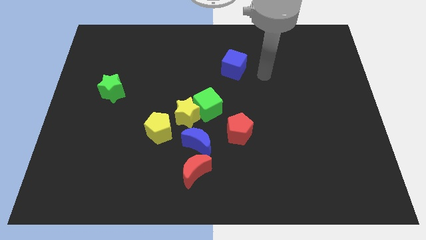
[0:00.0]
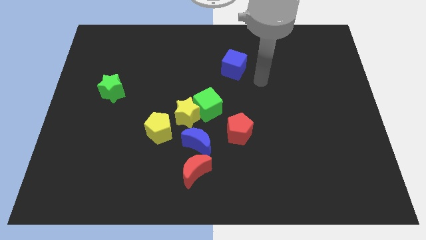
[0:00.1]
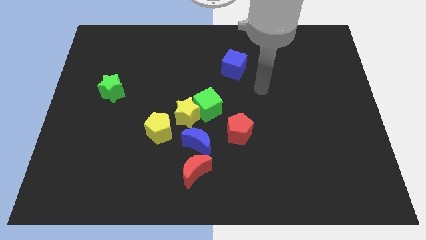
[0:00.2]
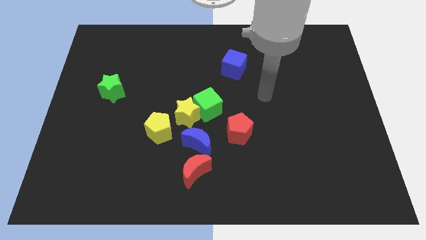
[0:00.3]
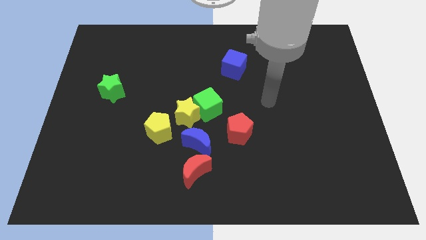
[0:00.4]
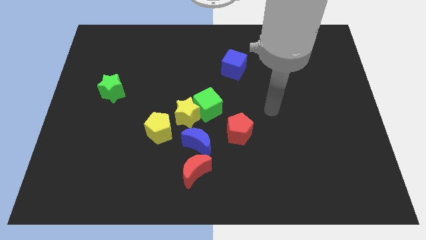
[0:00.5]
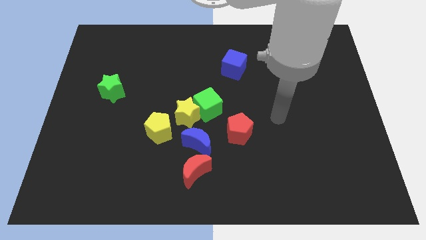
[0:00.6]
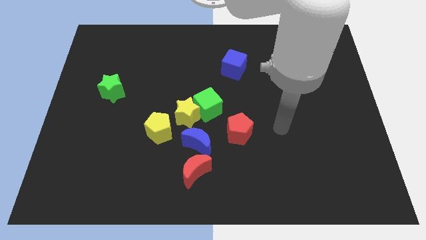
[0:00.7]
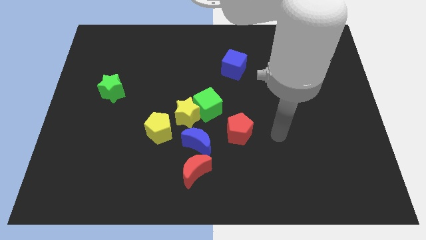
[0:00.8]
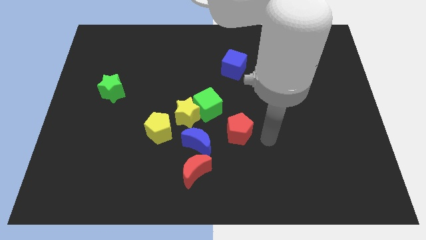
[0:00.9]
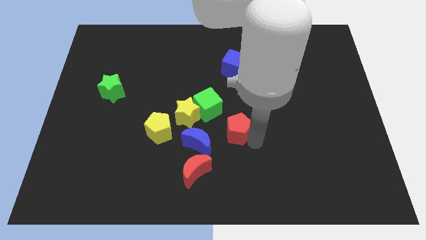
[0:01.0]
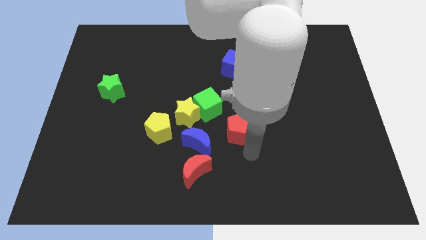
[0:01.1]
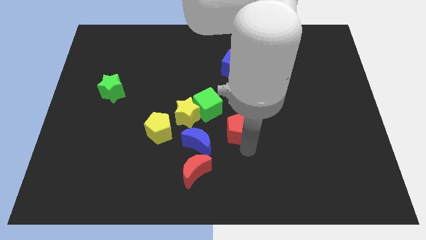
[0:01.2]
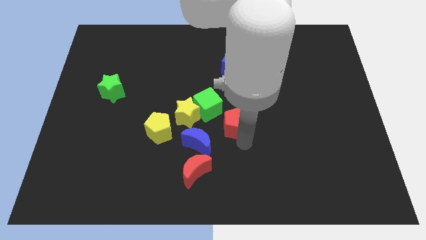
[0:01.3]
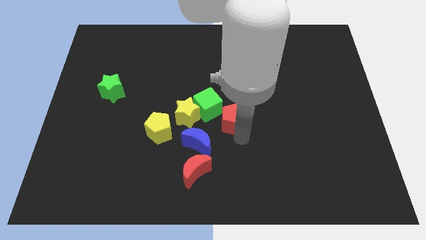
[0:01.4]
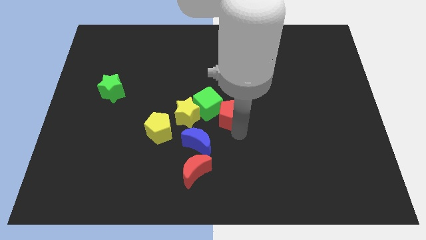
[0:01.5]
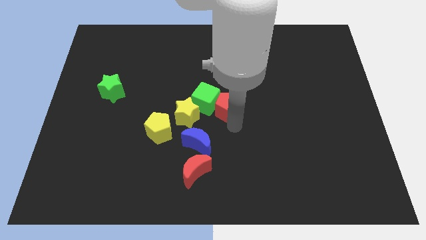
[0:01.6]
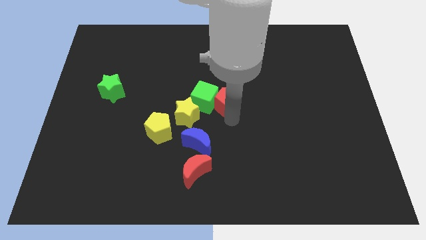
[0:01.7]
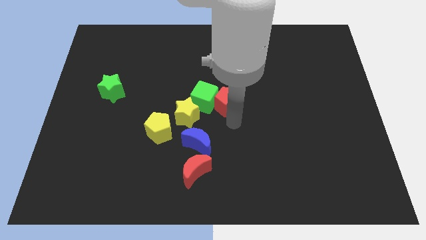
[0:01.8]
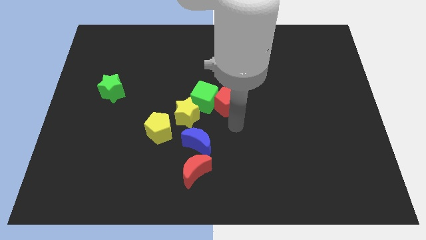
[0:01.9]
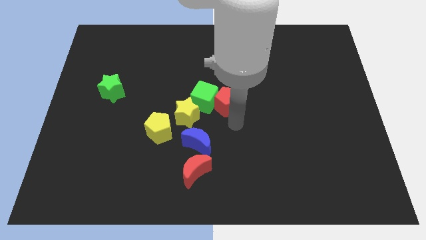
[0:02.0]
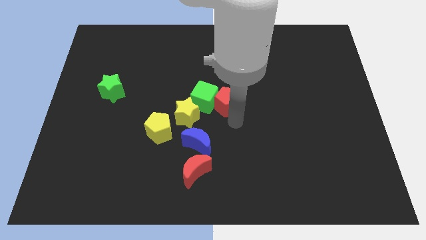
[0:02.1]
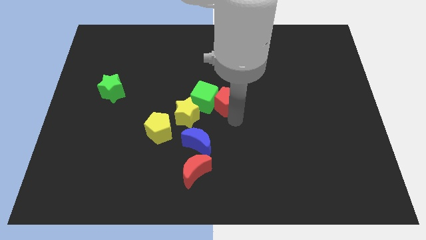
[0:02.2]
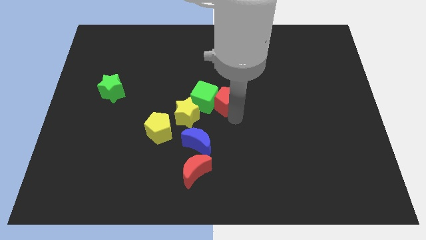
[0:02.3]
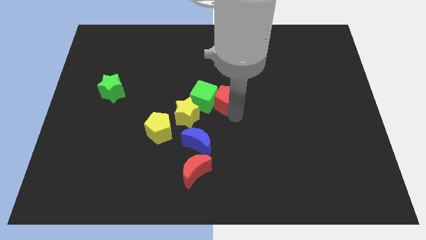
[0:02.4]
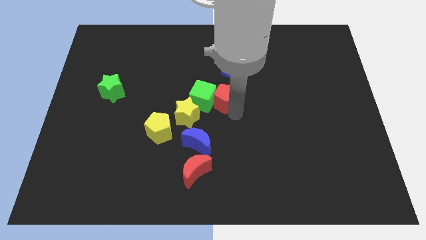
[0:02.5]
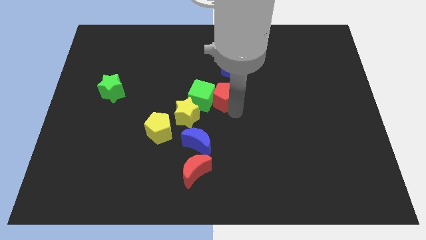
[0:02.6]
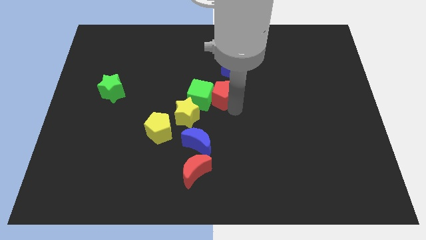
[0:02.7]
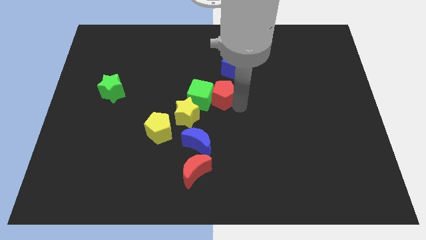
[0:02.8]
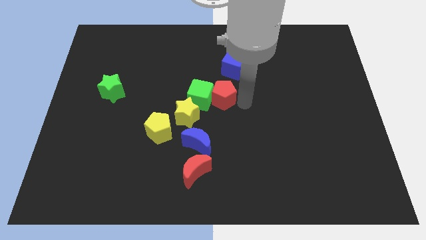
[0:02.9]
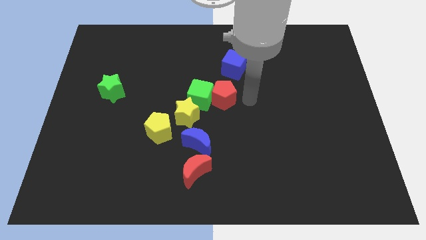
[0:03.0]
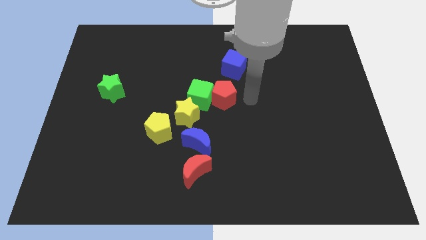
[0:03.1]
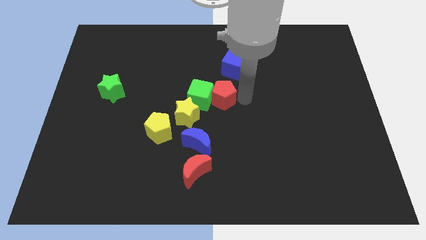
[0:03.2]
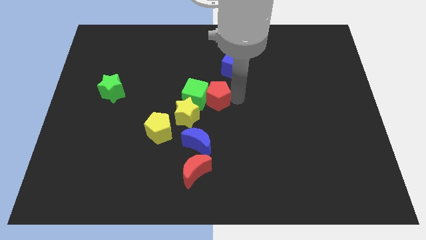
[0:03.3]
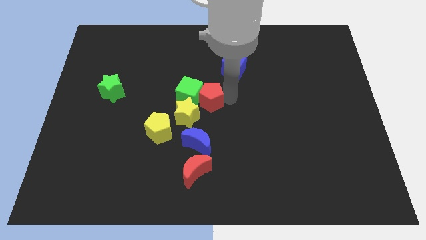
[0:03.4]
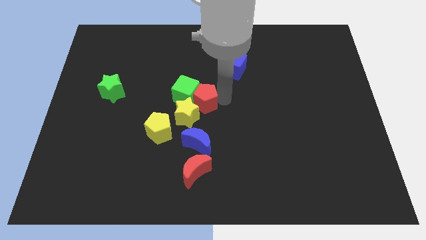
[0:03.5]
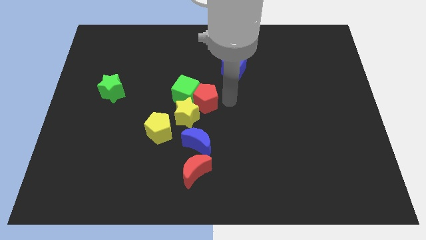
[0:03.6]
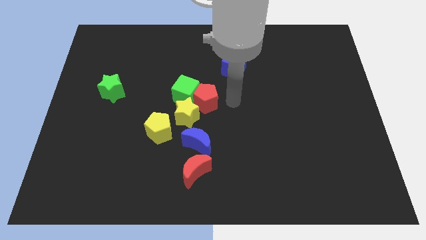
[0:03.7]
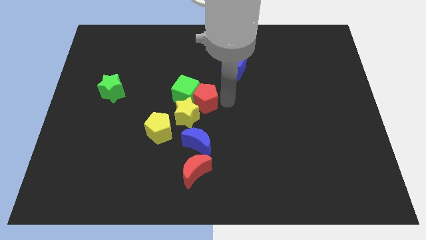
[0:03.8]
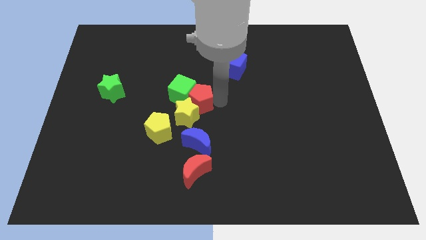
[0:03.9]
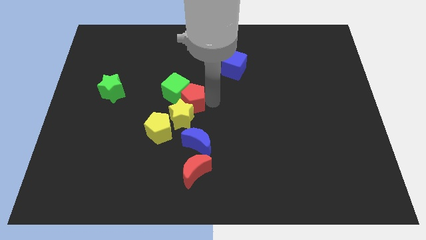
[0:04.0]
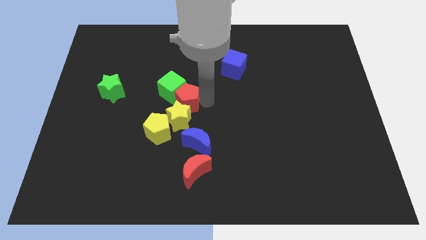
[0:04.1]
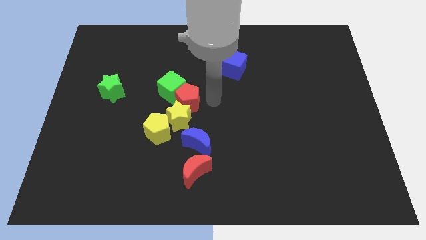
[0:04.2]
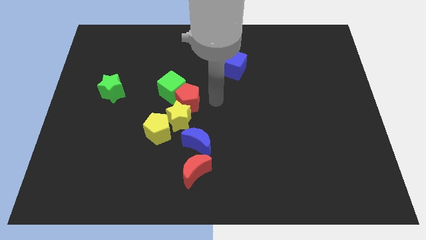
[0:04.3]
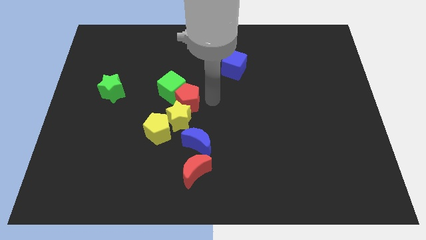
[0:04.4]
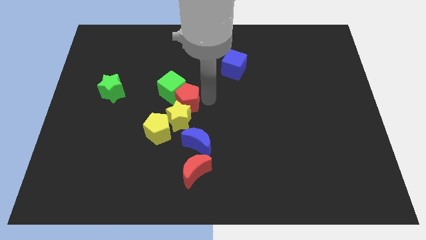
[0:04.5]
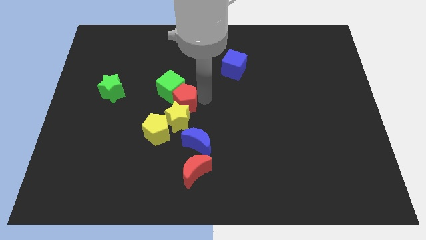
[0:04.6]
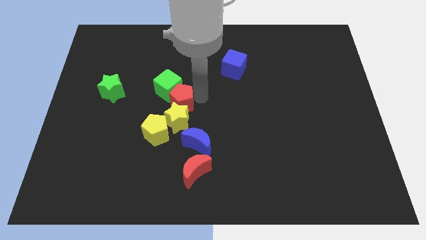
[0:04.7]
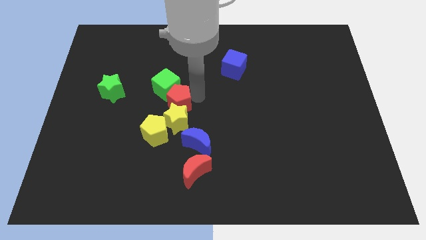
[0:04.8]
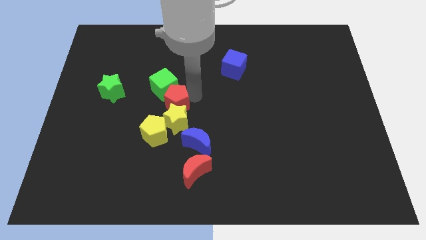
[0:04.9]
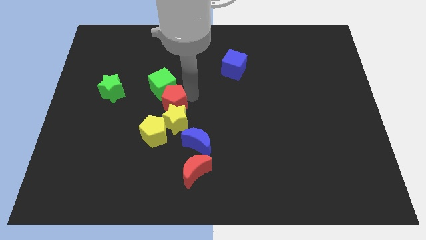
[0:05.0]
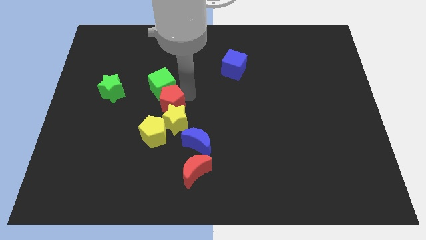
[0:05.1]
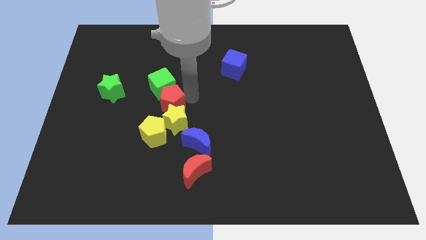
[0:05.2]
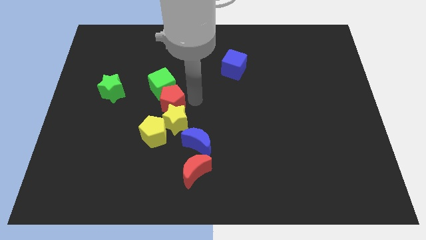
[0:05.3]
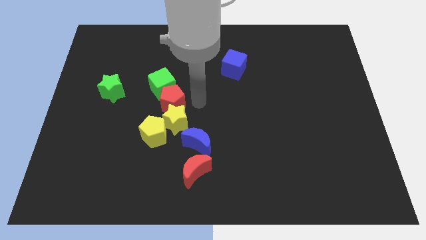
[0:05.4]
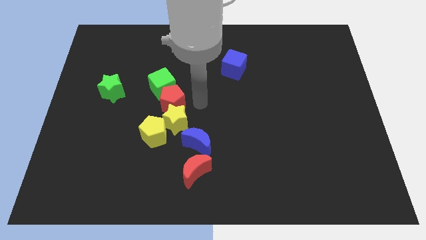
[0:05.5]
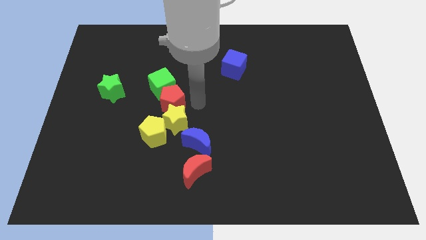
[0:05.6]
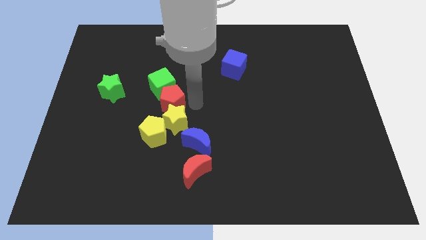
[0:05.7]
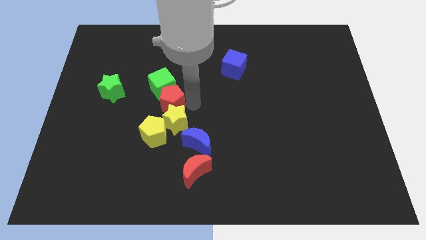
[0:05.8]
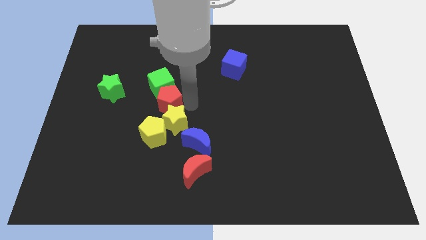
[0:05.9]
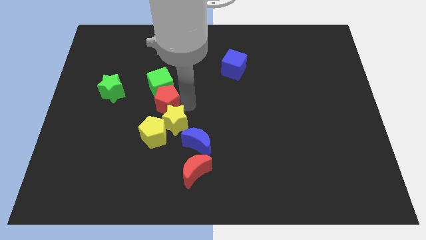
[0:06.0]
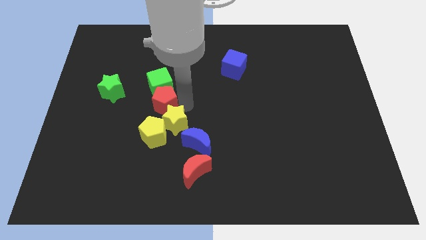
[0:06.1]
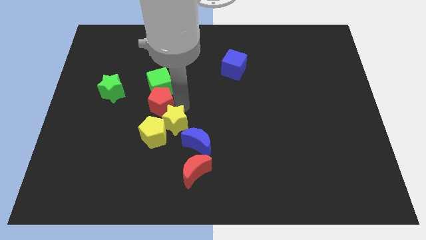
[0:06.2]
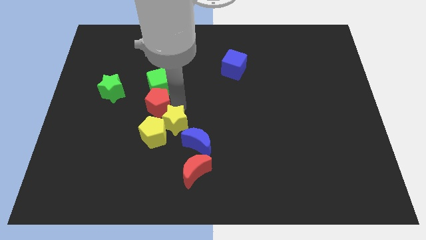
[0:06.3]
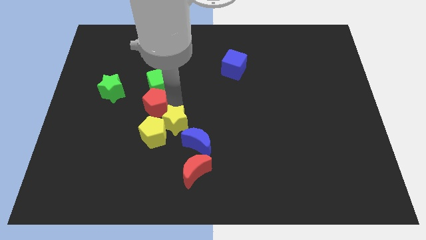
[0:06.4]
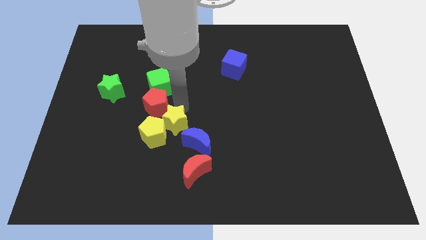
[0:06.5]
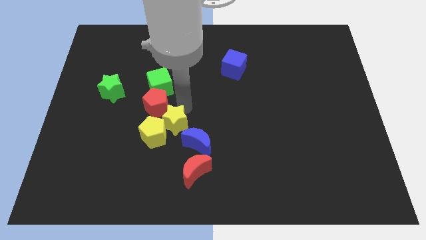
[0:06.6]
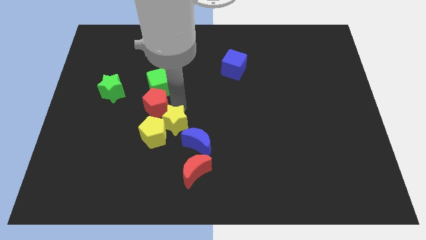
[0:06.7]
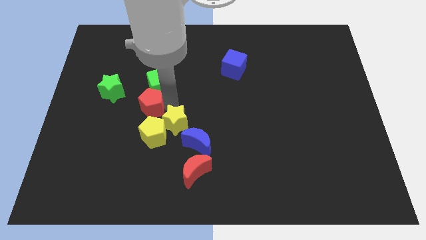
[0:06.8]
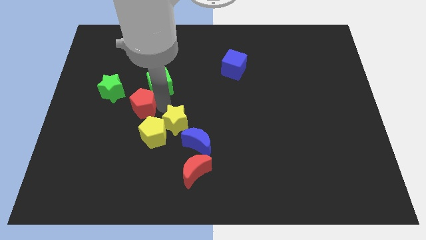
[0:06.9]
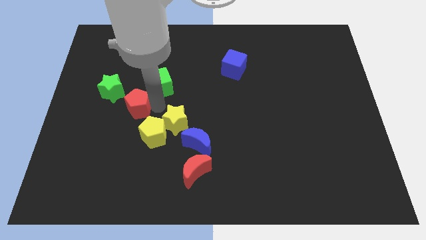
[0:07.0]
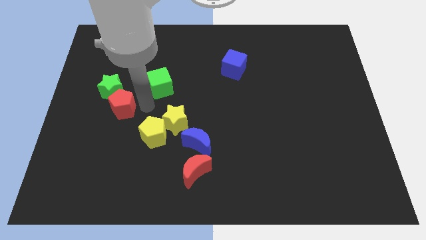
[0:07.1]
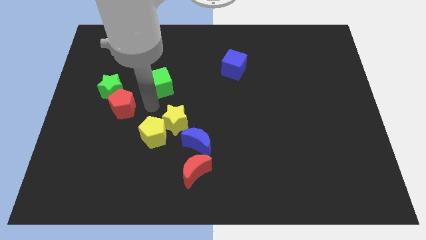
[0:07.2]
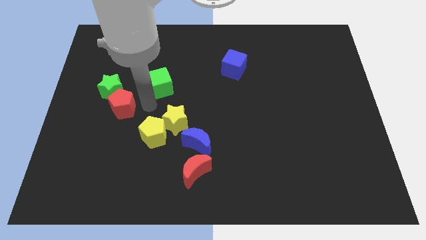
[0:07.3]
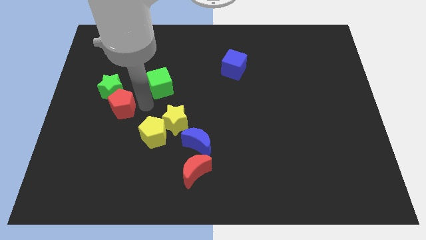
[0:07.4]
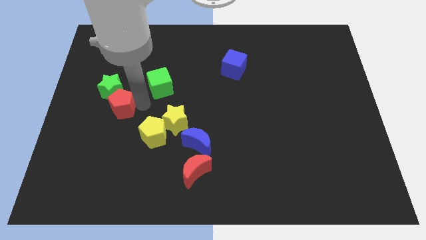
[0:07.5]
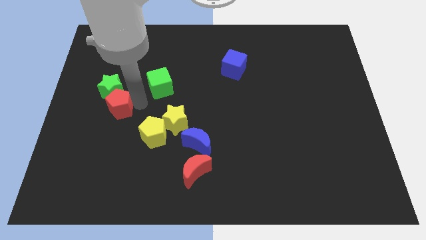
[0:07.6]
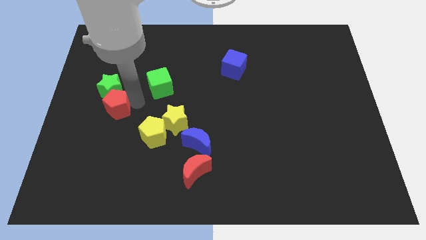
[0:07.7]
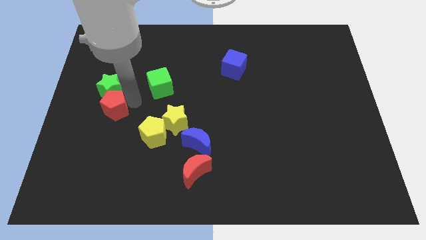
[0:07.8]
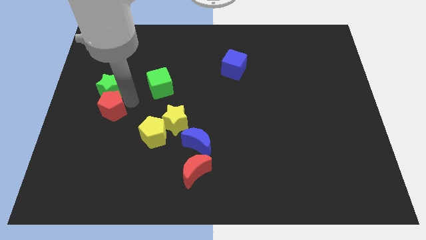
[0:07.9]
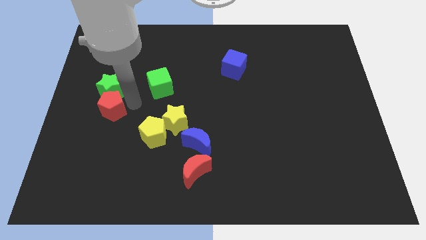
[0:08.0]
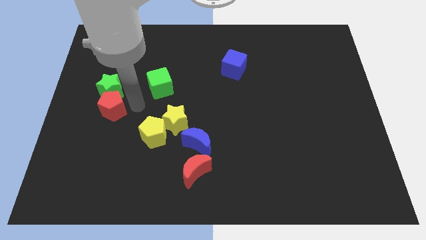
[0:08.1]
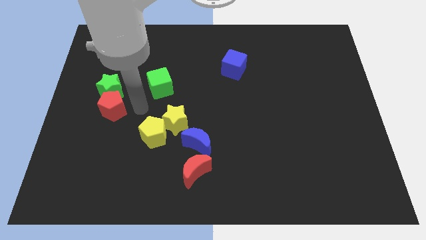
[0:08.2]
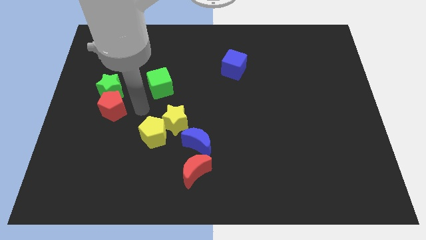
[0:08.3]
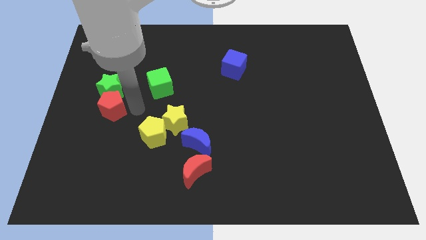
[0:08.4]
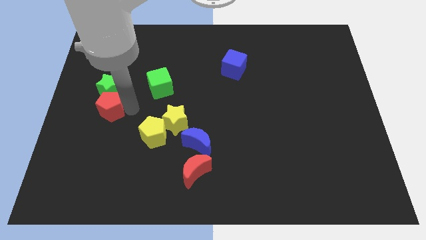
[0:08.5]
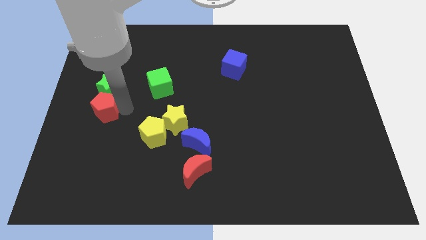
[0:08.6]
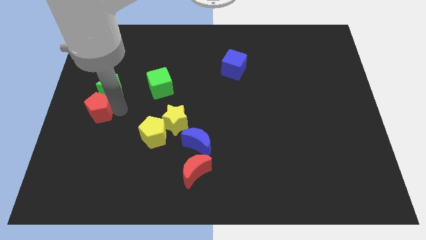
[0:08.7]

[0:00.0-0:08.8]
push the red pentagon to the left side of the board
